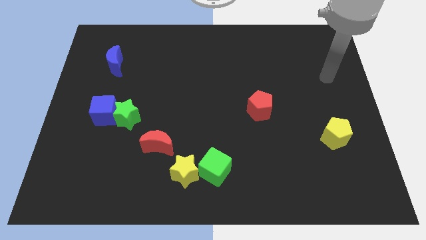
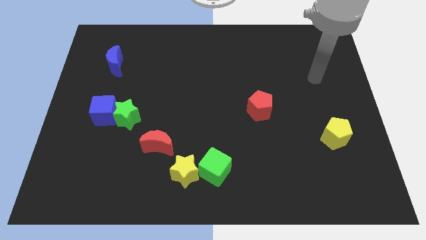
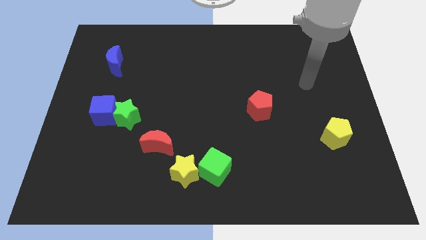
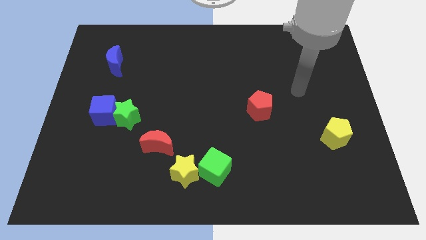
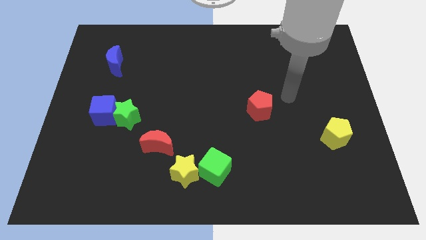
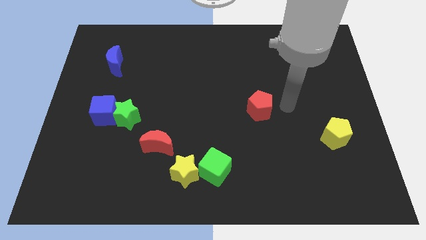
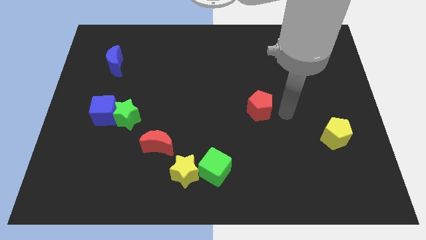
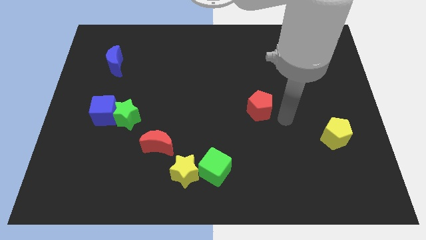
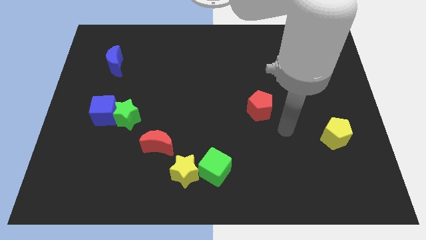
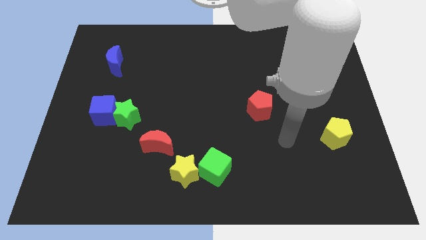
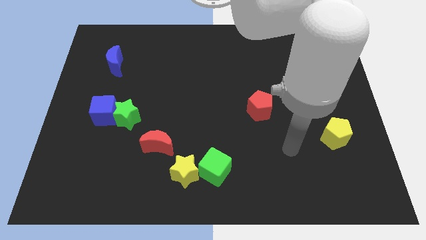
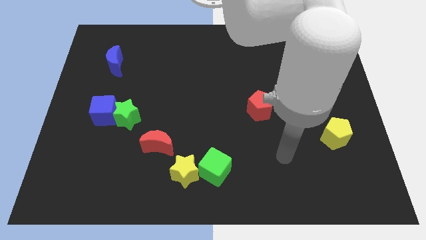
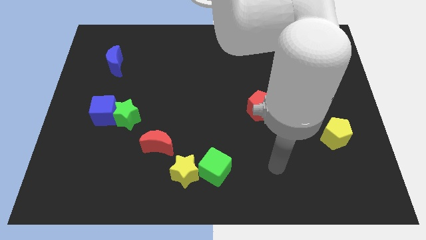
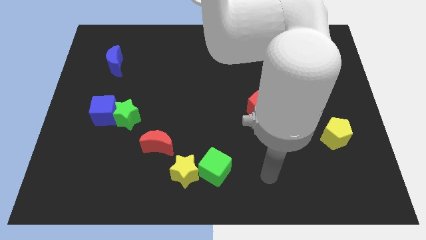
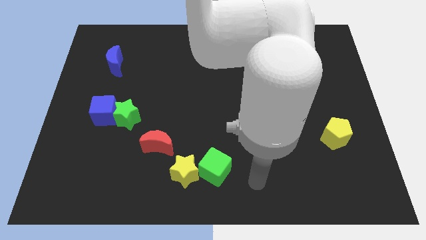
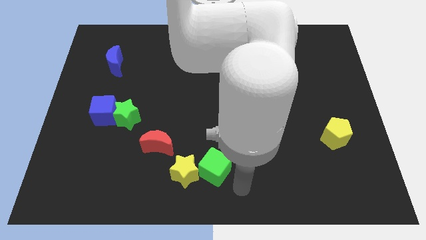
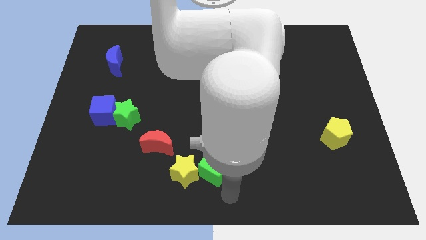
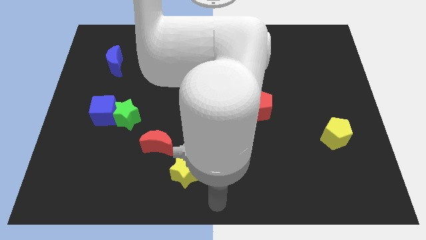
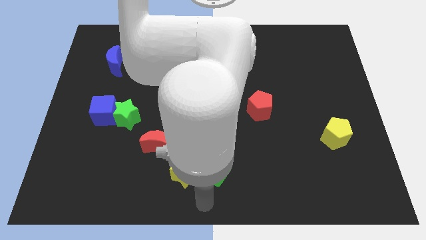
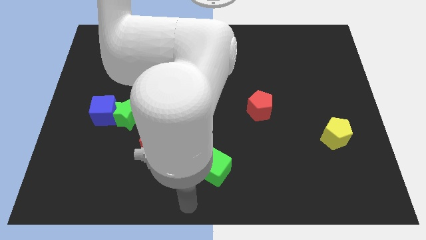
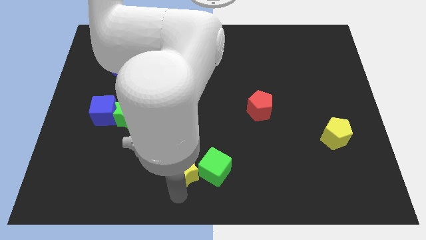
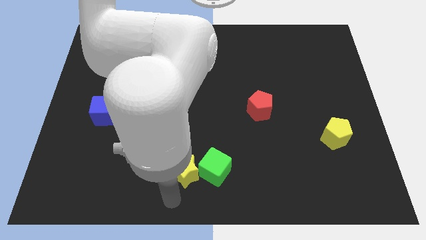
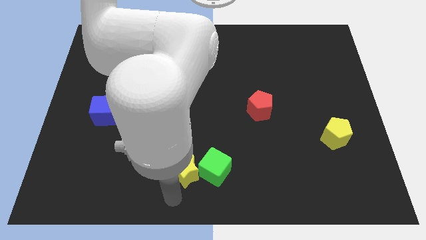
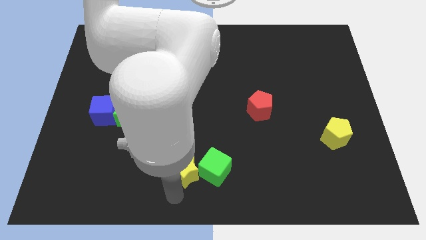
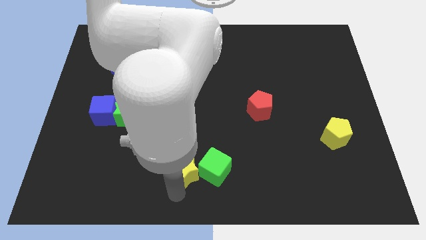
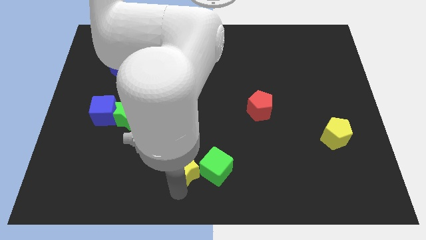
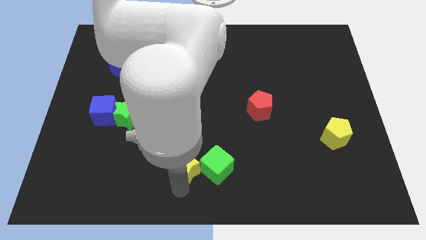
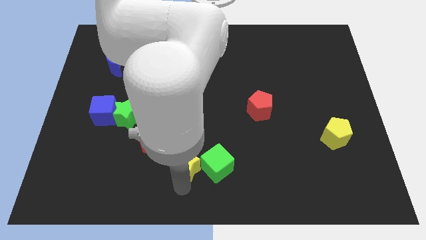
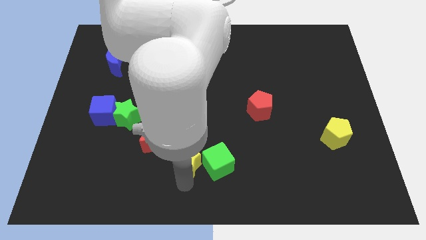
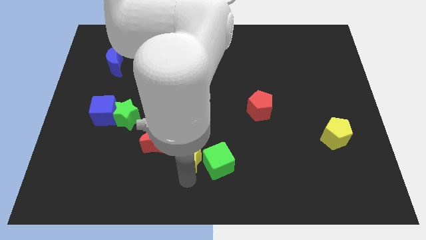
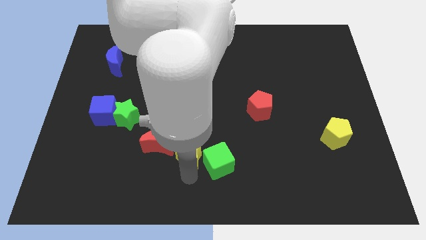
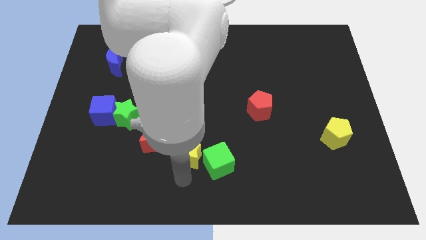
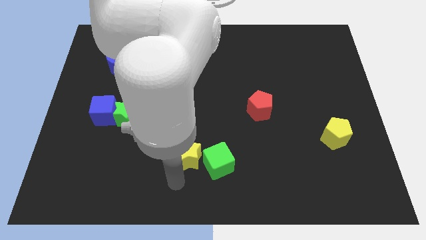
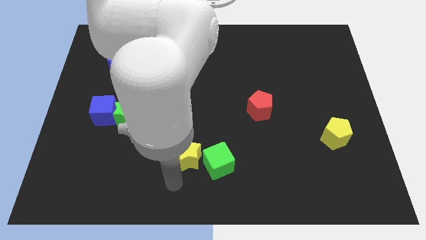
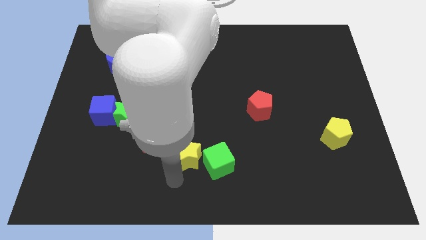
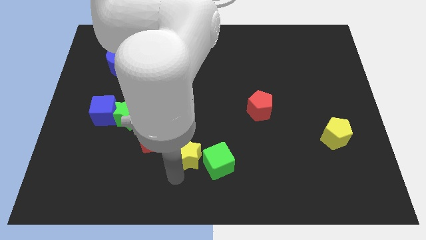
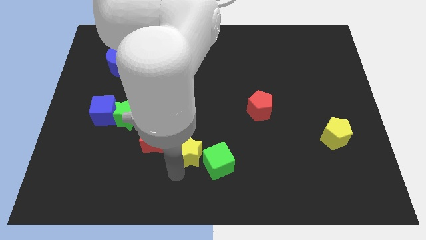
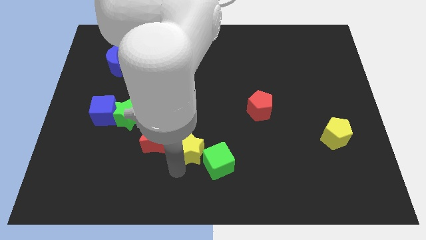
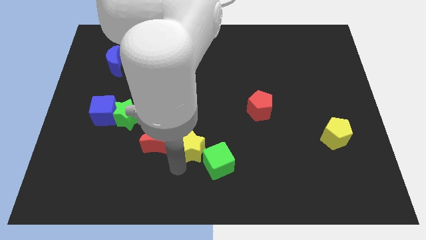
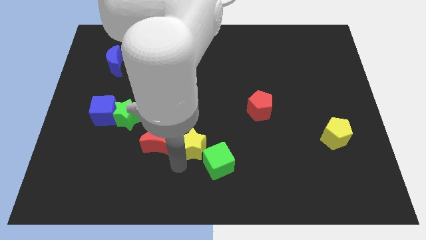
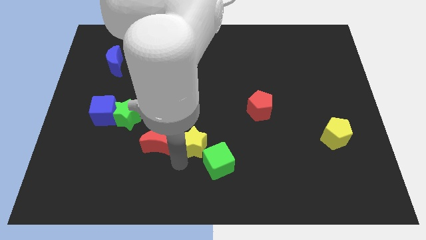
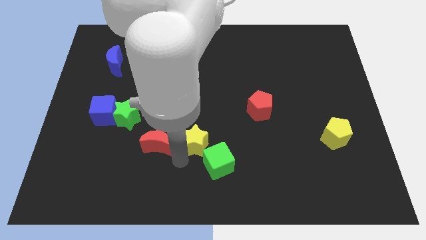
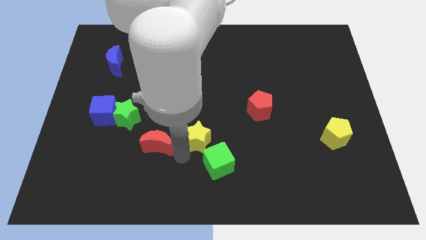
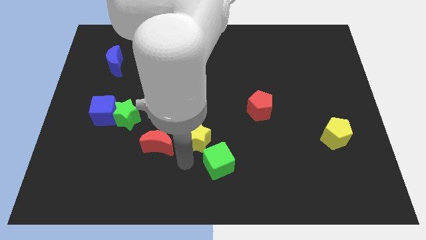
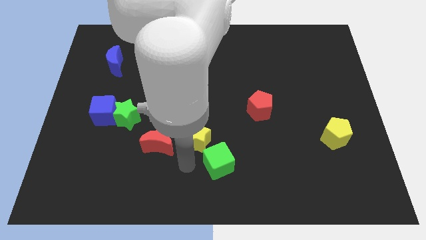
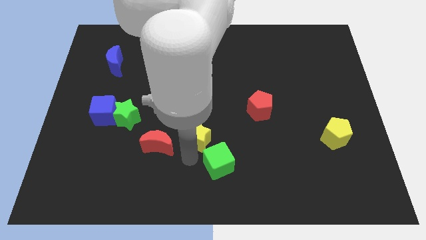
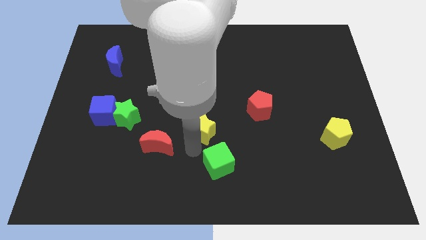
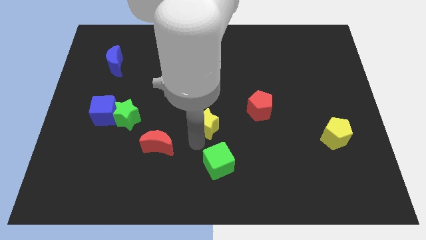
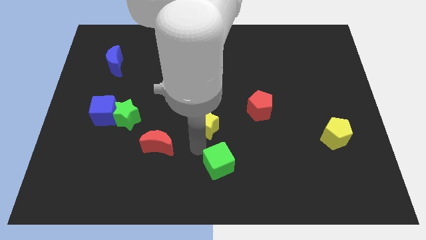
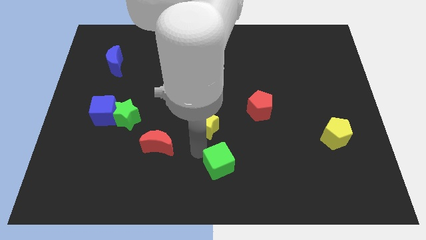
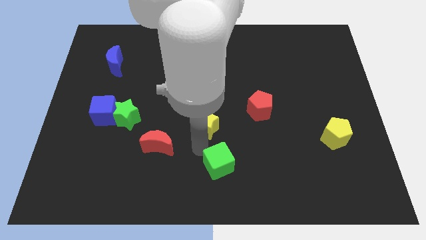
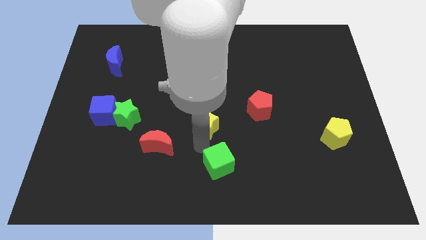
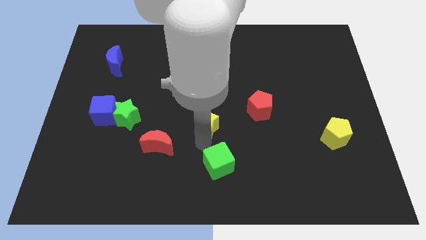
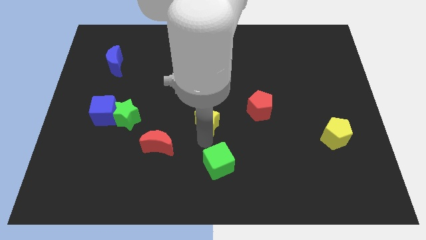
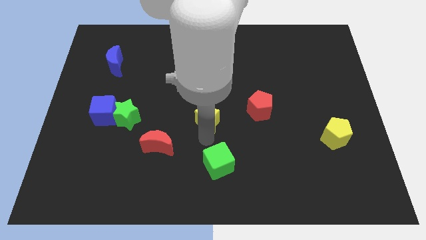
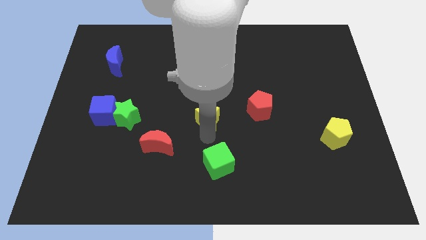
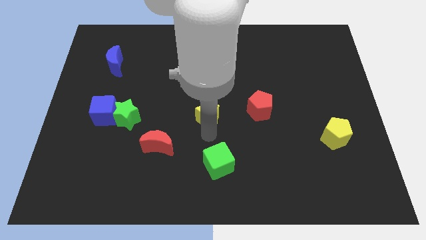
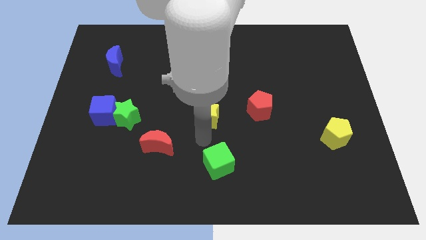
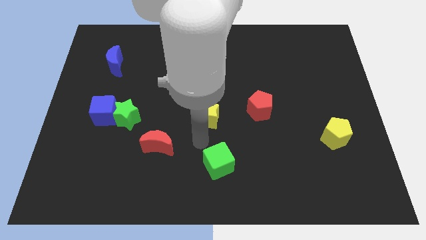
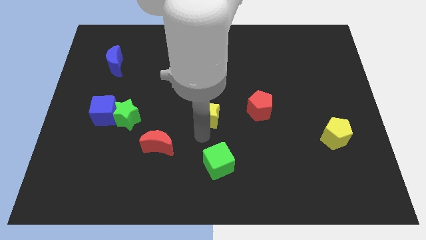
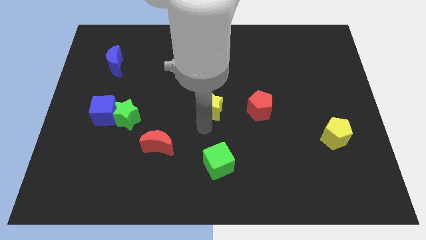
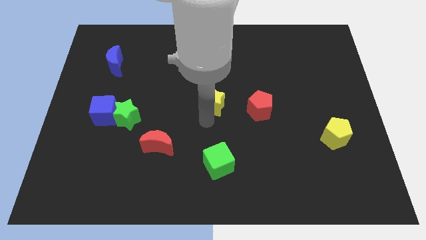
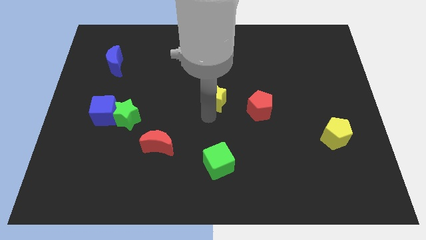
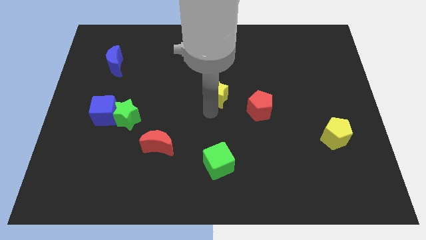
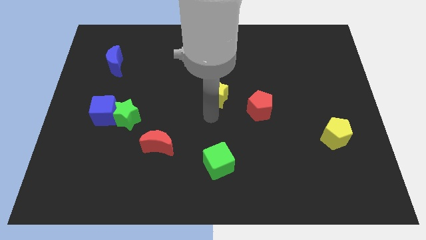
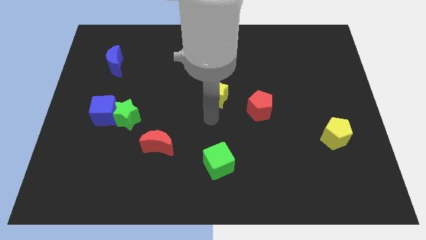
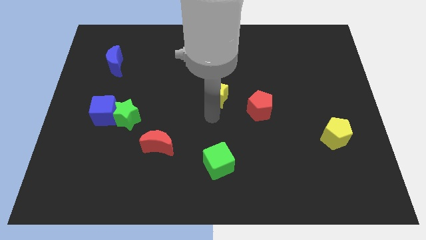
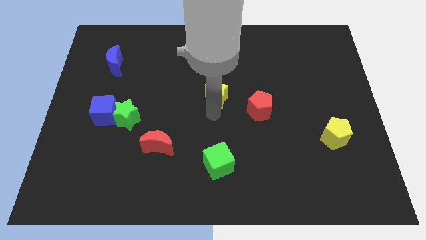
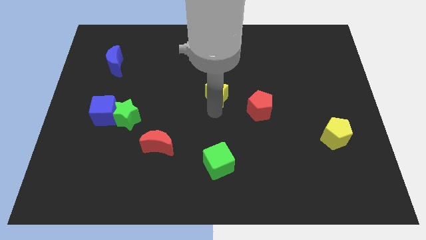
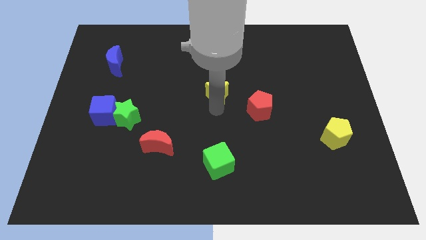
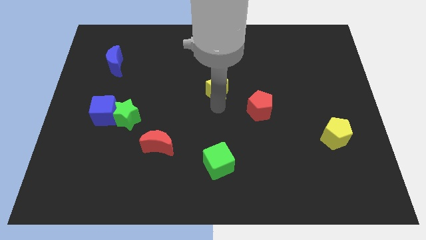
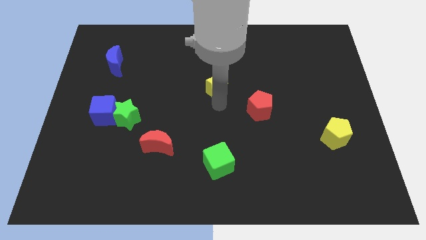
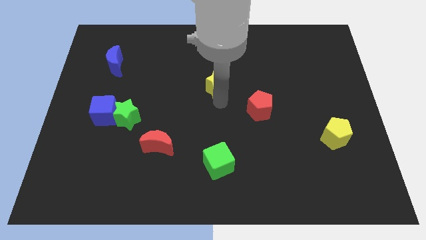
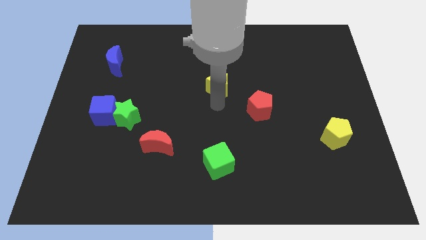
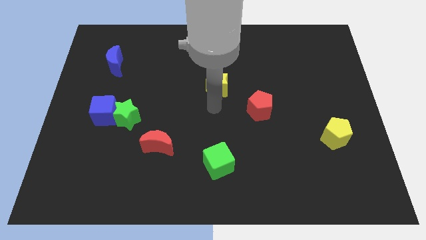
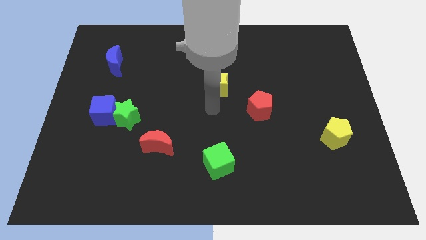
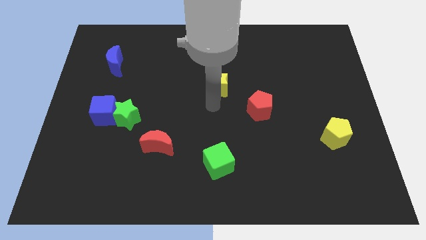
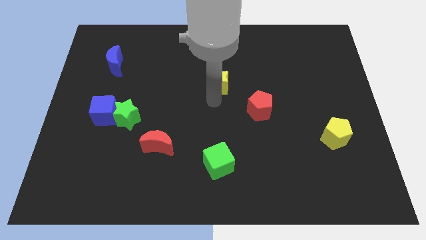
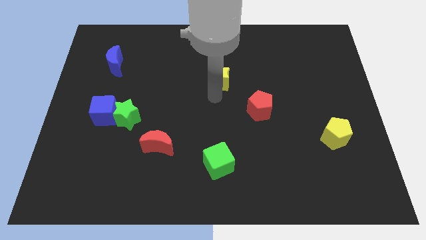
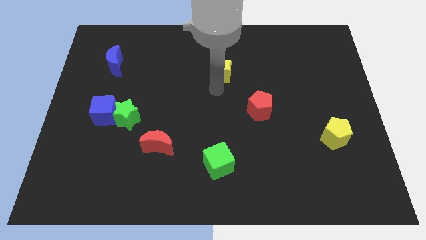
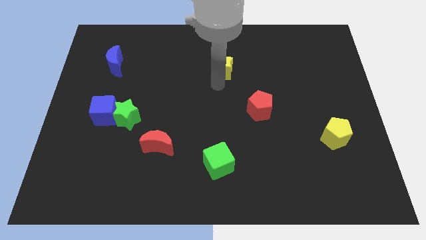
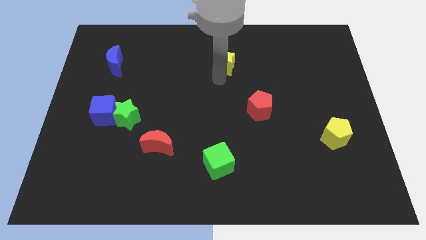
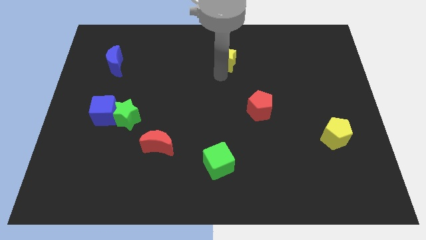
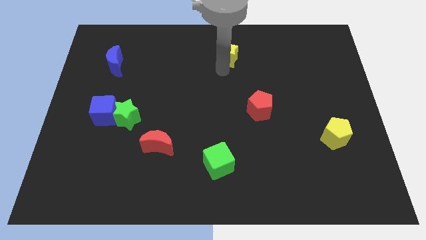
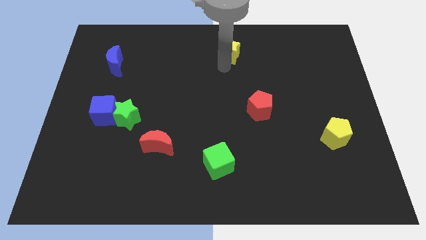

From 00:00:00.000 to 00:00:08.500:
move the yellow star to the top
